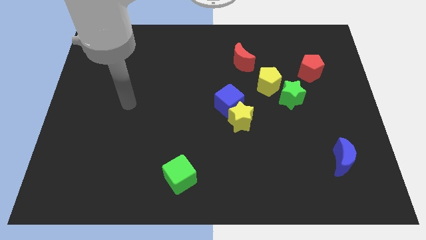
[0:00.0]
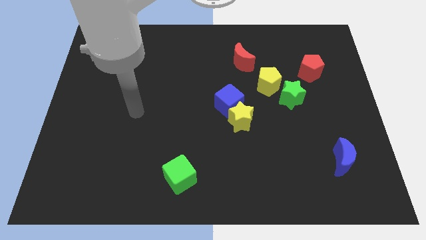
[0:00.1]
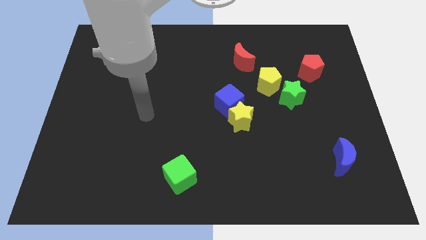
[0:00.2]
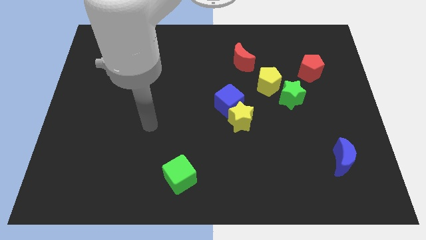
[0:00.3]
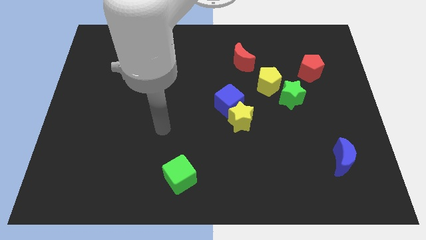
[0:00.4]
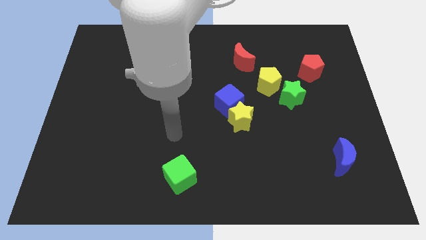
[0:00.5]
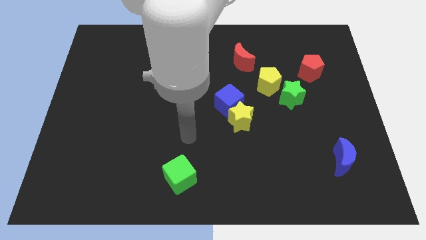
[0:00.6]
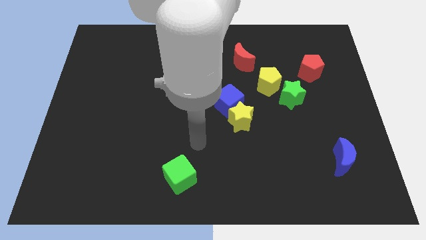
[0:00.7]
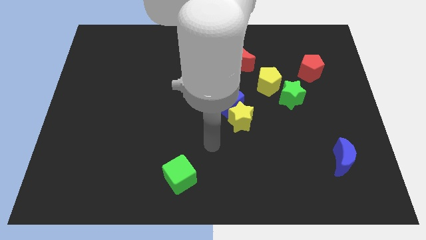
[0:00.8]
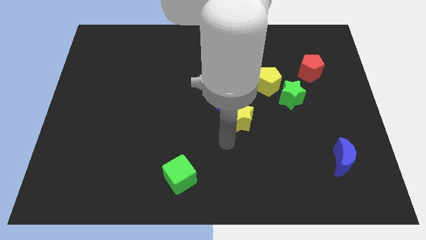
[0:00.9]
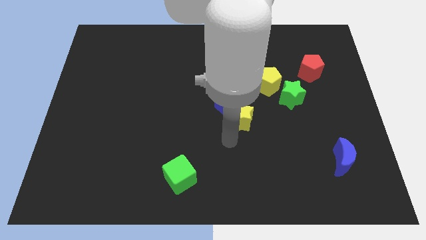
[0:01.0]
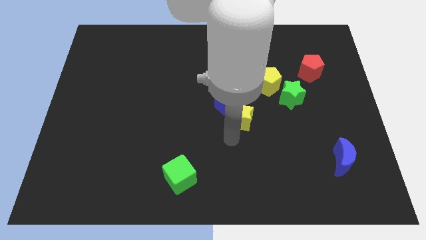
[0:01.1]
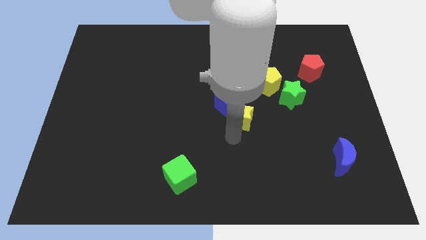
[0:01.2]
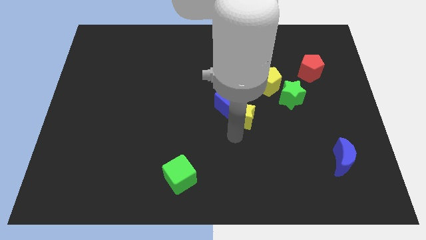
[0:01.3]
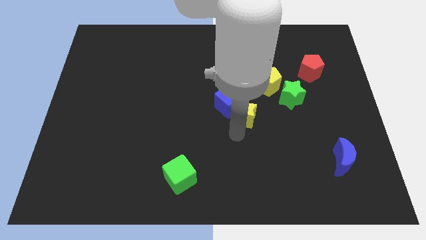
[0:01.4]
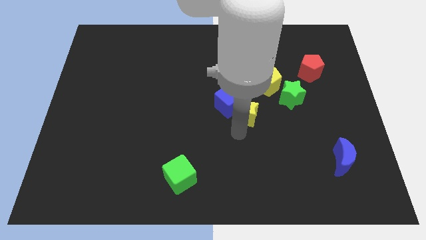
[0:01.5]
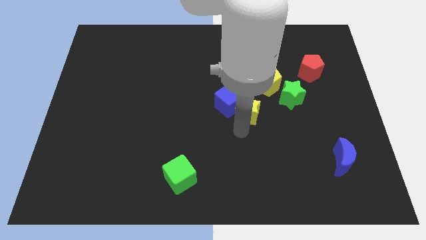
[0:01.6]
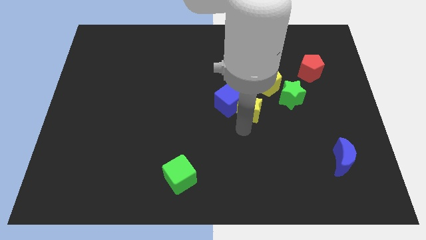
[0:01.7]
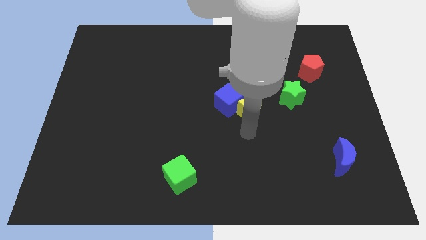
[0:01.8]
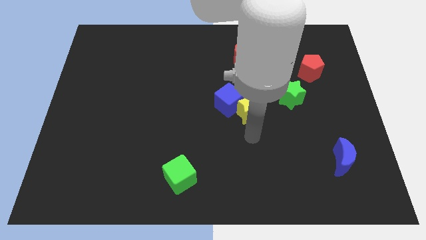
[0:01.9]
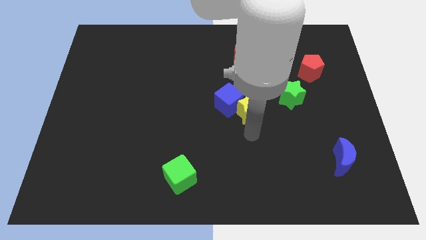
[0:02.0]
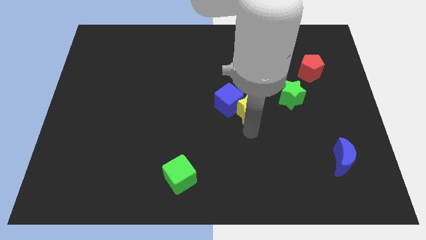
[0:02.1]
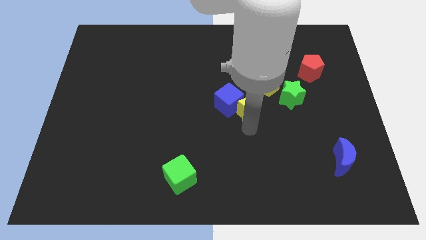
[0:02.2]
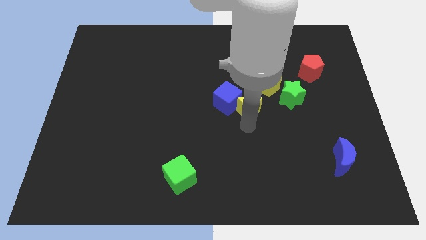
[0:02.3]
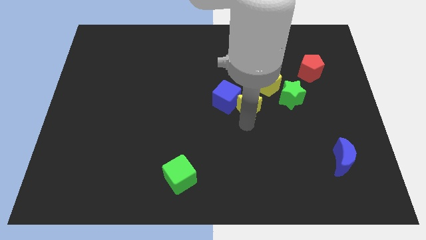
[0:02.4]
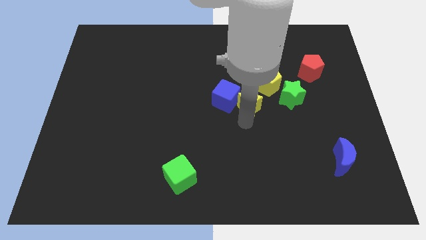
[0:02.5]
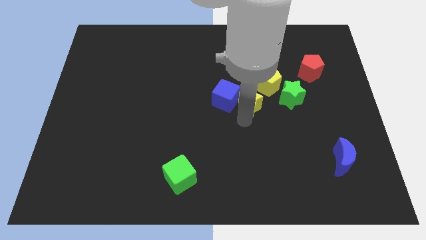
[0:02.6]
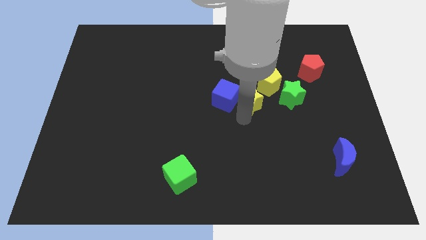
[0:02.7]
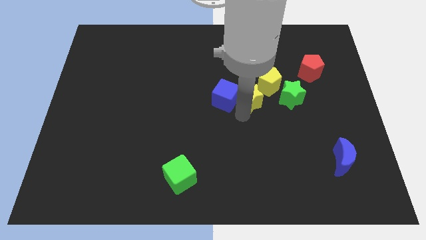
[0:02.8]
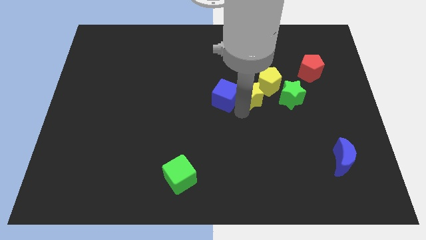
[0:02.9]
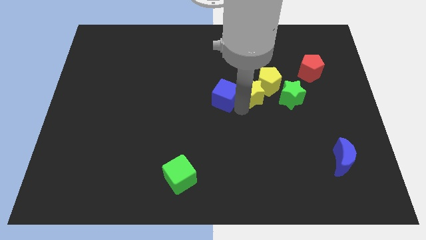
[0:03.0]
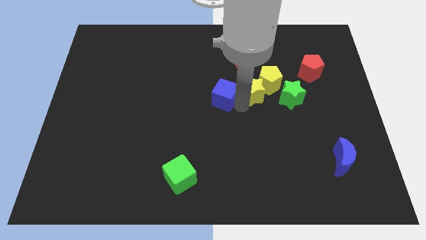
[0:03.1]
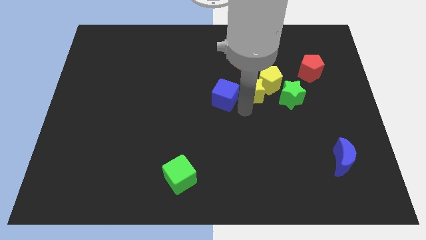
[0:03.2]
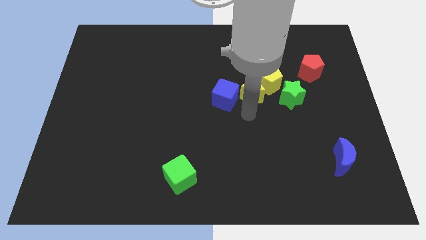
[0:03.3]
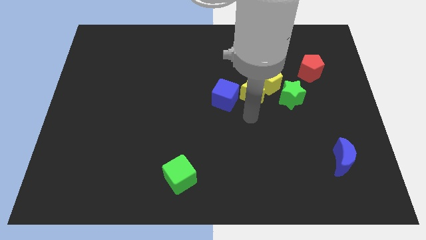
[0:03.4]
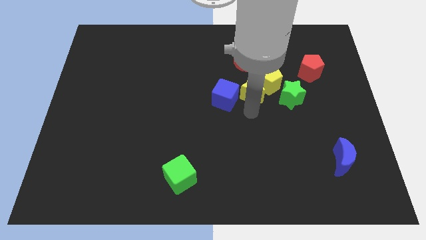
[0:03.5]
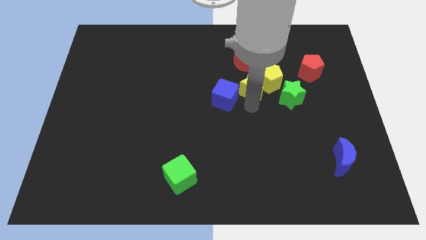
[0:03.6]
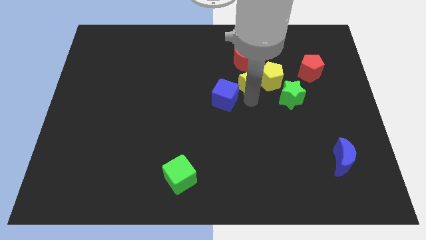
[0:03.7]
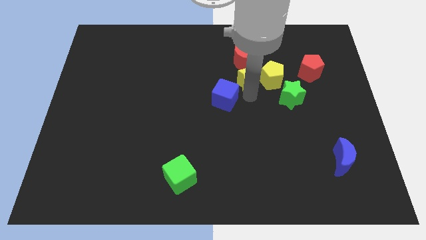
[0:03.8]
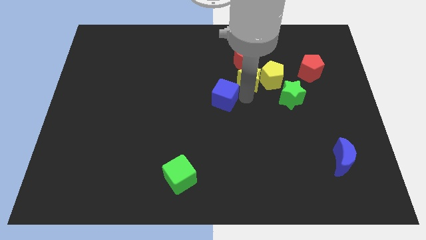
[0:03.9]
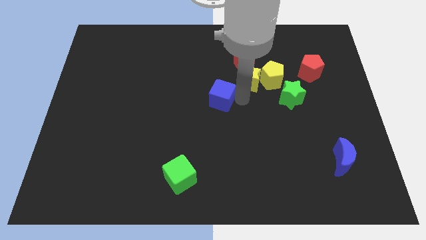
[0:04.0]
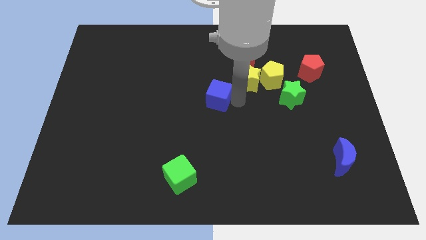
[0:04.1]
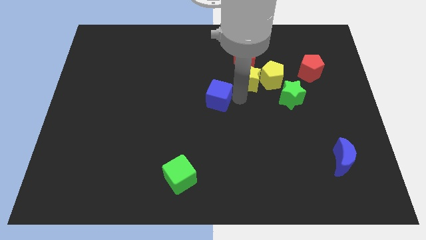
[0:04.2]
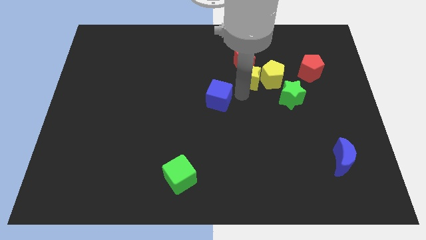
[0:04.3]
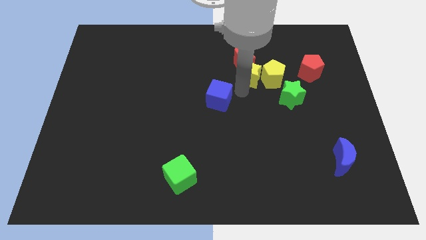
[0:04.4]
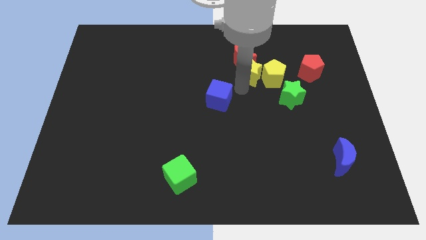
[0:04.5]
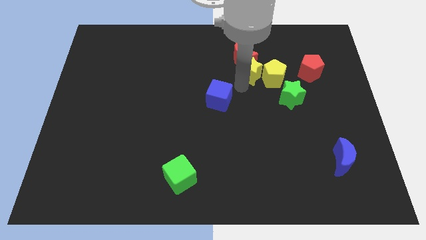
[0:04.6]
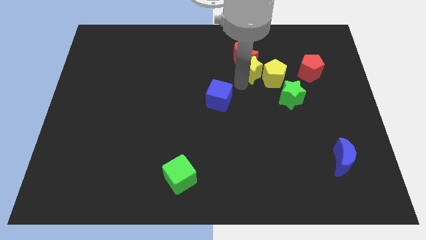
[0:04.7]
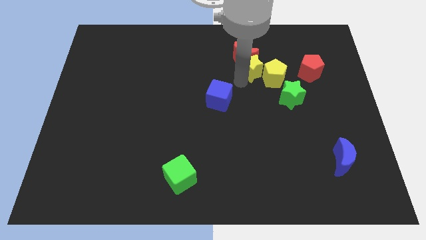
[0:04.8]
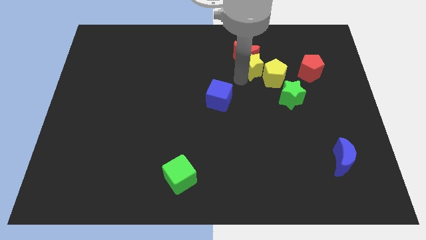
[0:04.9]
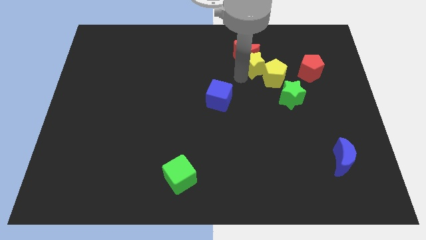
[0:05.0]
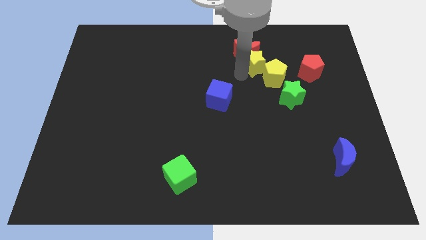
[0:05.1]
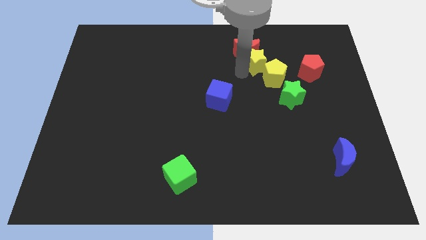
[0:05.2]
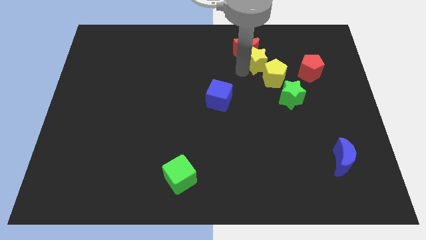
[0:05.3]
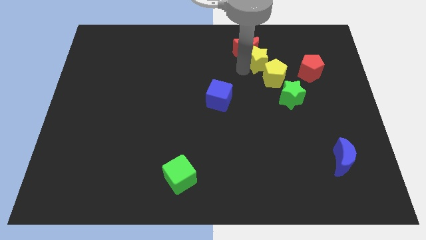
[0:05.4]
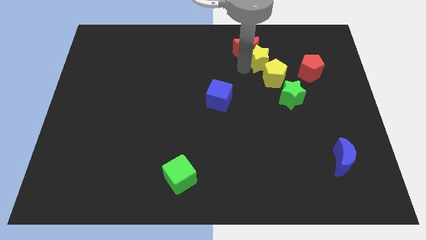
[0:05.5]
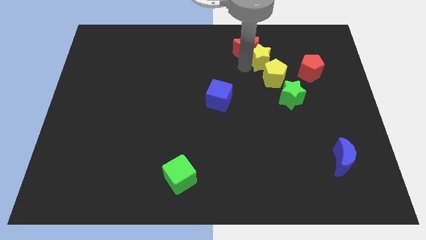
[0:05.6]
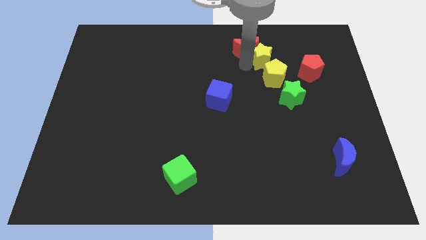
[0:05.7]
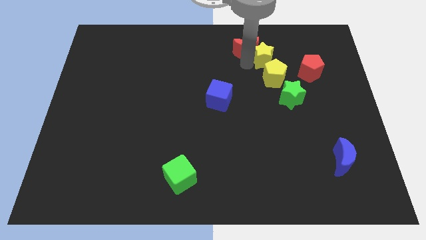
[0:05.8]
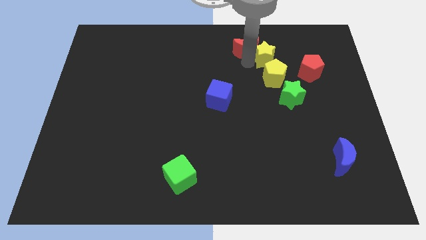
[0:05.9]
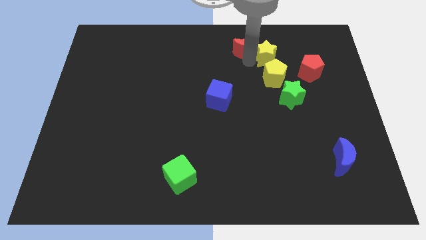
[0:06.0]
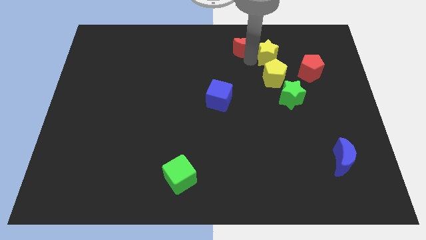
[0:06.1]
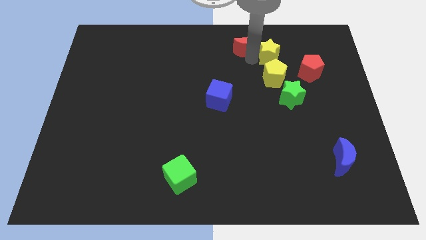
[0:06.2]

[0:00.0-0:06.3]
put the yellow star to the top left side of the red pentagon
